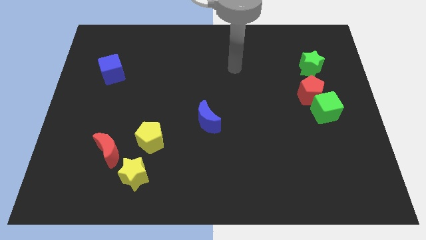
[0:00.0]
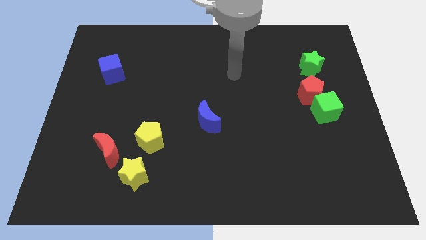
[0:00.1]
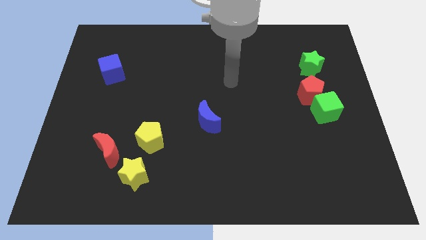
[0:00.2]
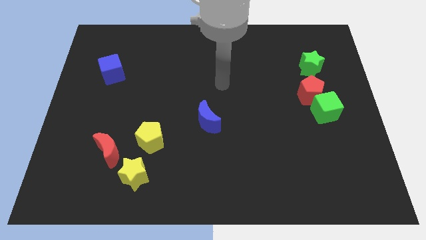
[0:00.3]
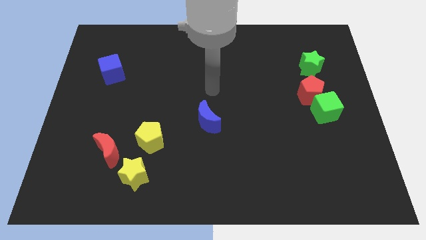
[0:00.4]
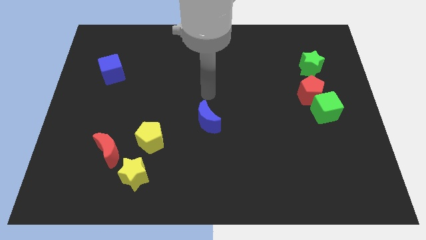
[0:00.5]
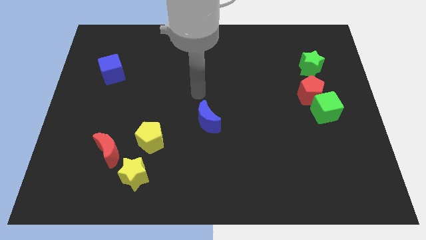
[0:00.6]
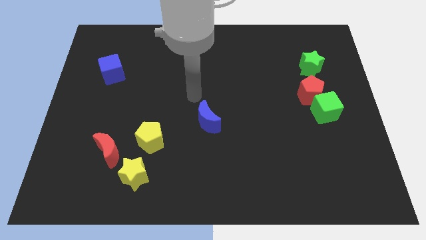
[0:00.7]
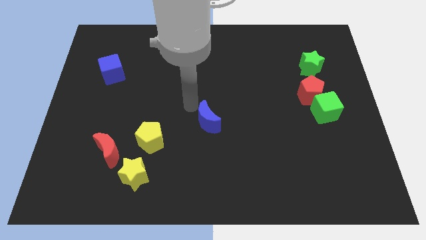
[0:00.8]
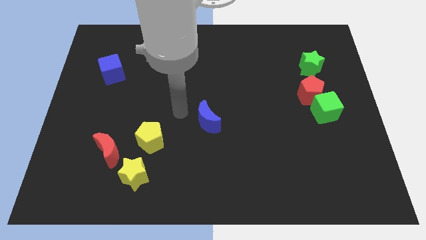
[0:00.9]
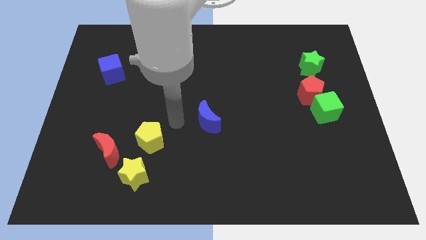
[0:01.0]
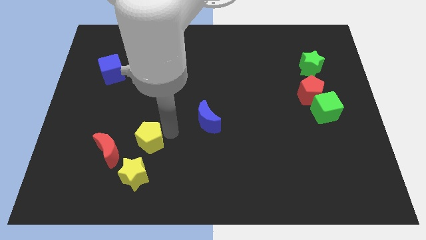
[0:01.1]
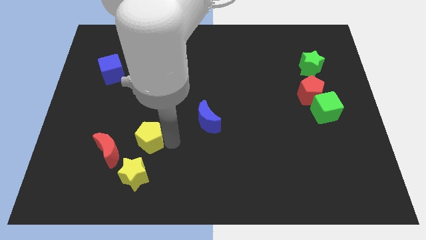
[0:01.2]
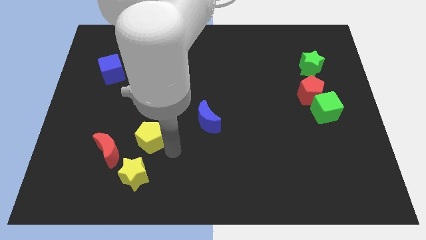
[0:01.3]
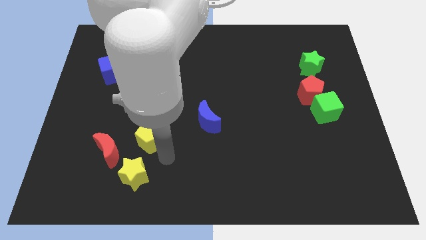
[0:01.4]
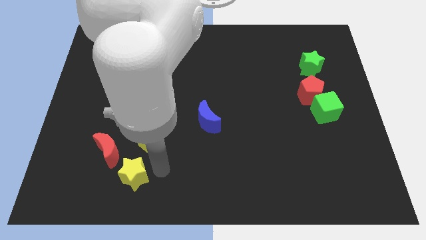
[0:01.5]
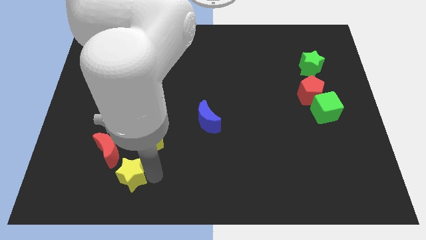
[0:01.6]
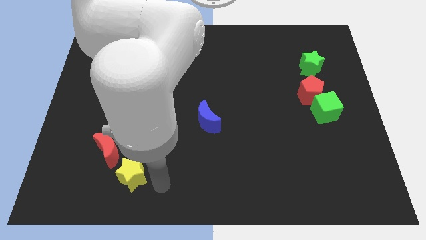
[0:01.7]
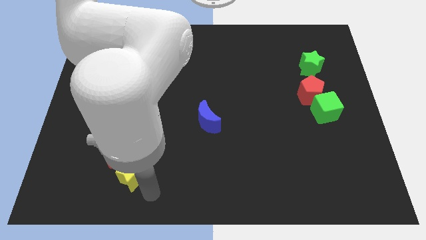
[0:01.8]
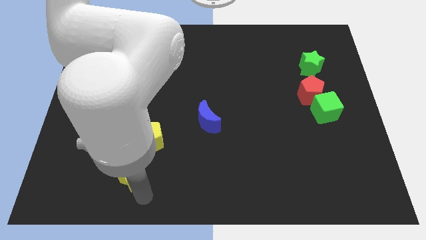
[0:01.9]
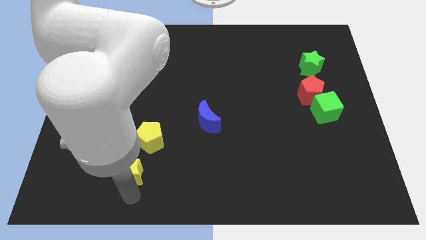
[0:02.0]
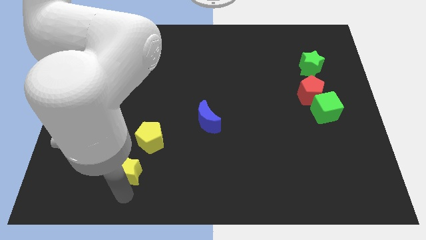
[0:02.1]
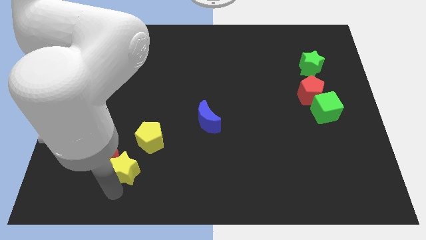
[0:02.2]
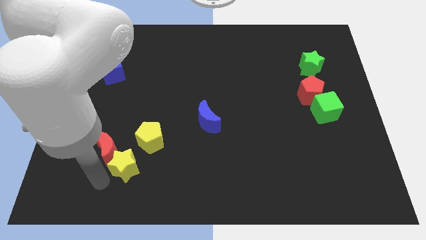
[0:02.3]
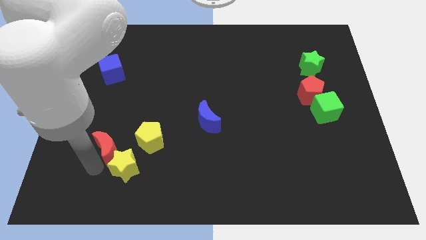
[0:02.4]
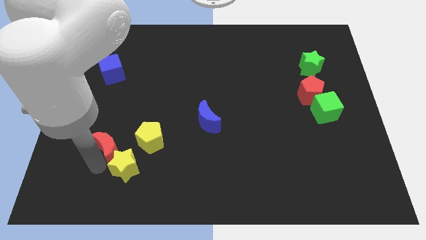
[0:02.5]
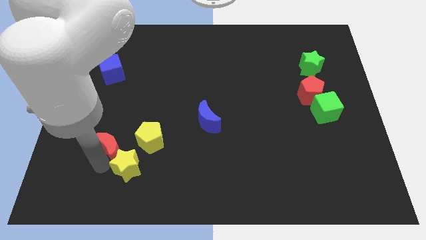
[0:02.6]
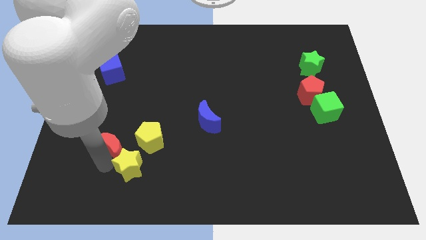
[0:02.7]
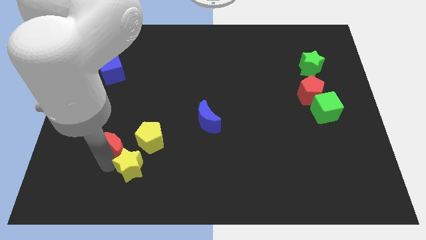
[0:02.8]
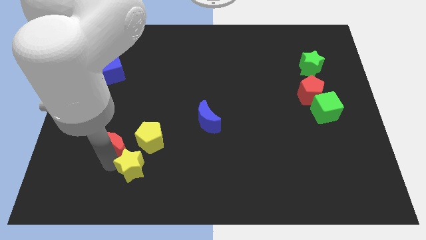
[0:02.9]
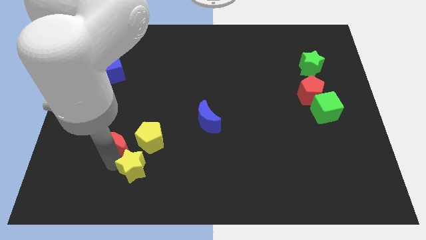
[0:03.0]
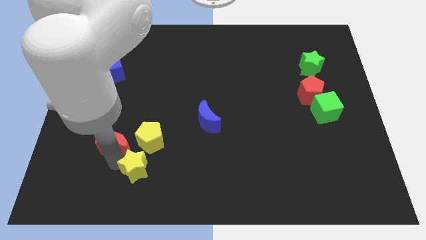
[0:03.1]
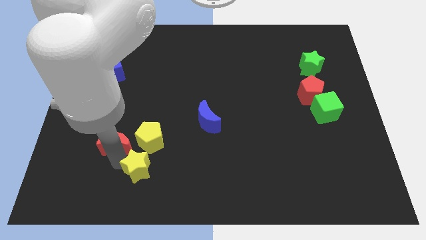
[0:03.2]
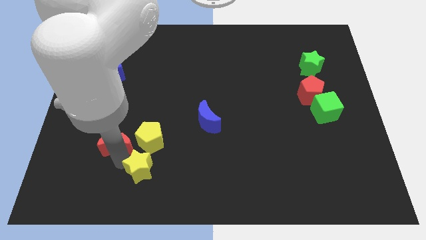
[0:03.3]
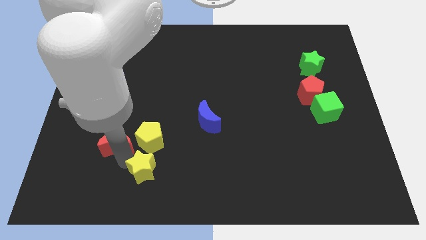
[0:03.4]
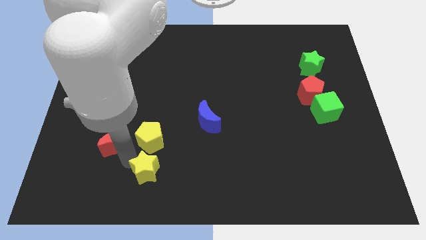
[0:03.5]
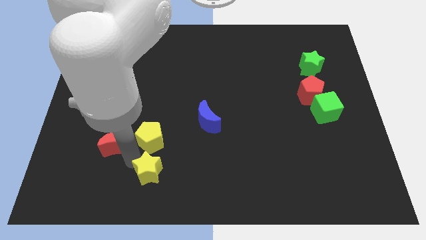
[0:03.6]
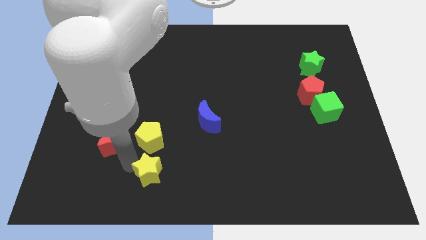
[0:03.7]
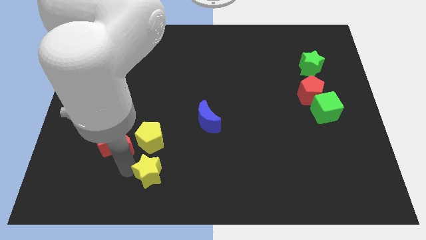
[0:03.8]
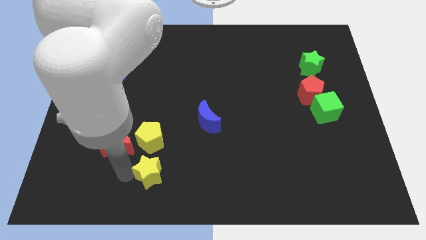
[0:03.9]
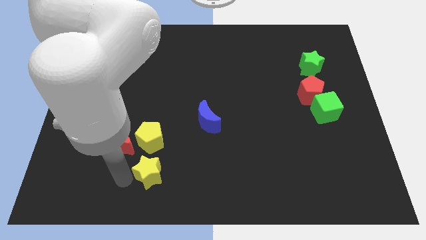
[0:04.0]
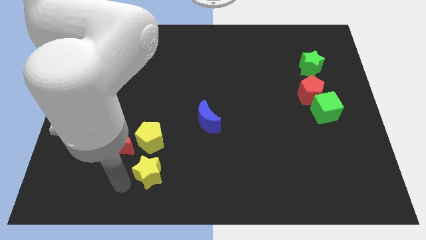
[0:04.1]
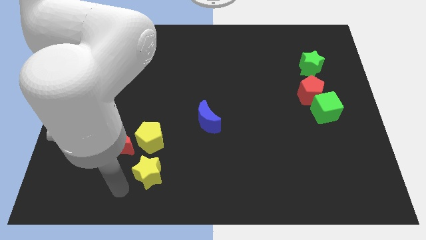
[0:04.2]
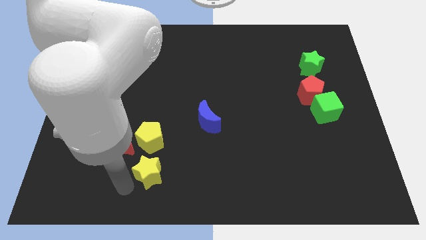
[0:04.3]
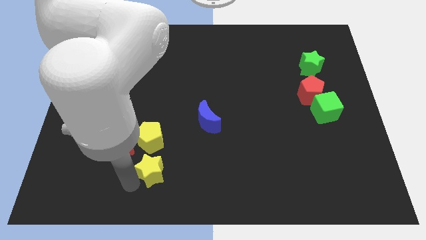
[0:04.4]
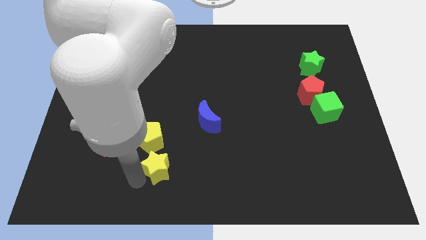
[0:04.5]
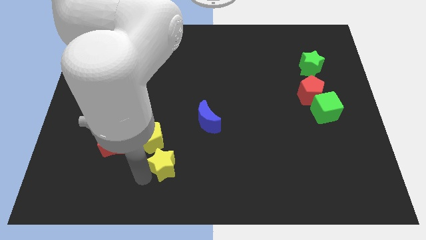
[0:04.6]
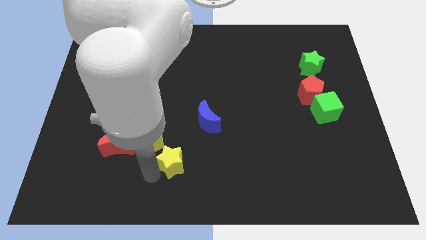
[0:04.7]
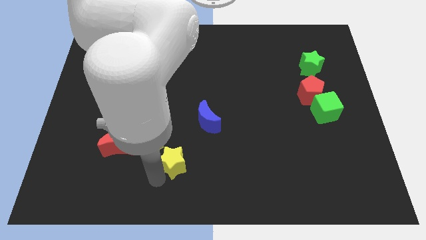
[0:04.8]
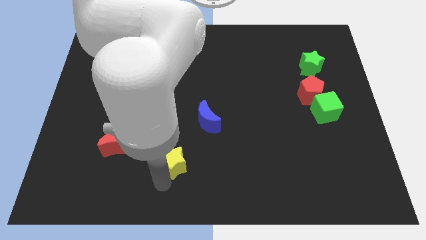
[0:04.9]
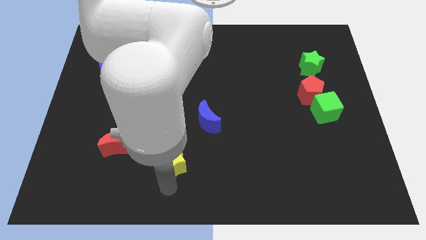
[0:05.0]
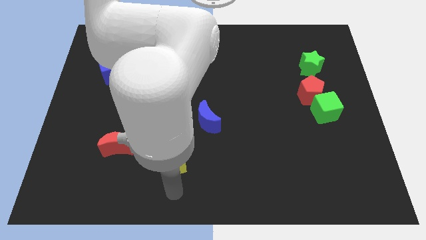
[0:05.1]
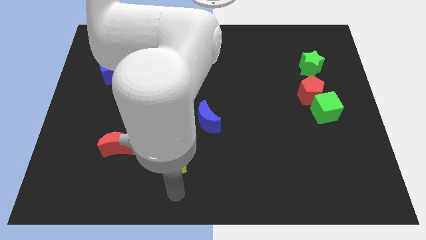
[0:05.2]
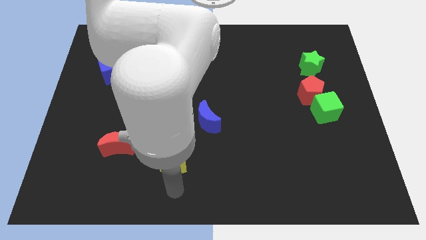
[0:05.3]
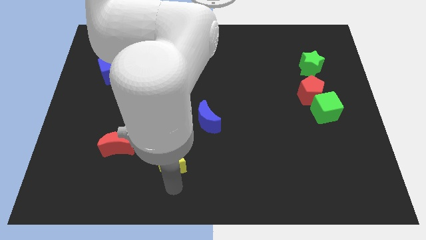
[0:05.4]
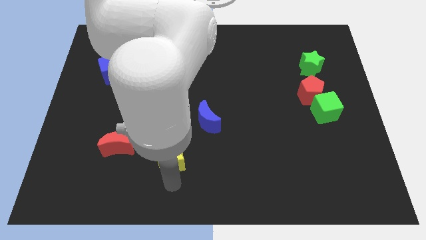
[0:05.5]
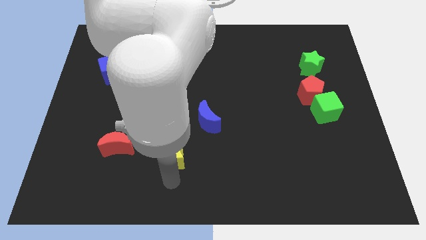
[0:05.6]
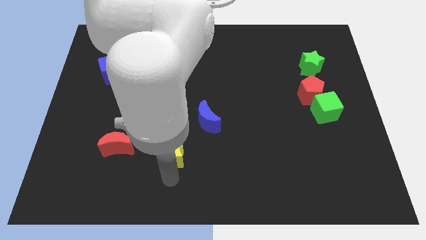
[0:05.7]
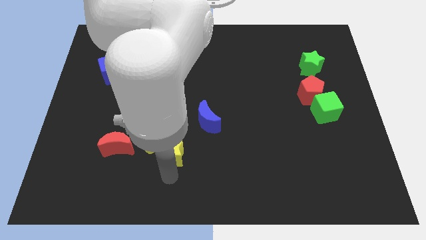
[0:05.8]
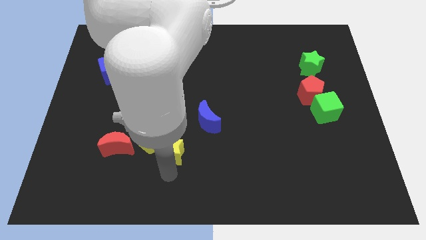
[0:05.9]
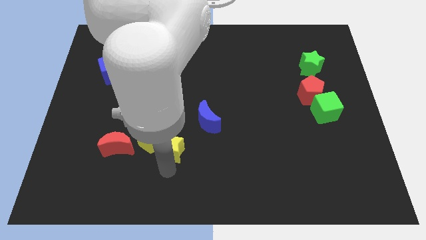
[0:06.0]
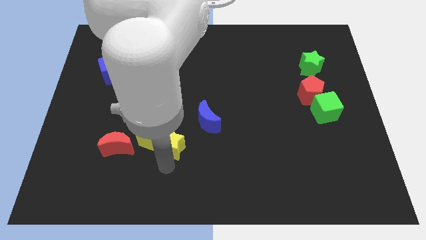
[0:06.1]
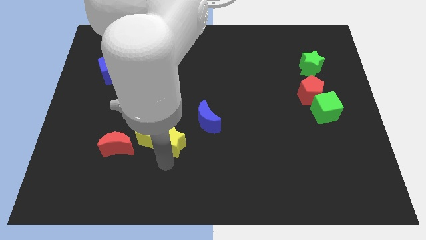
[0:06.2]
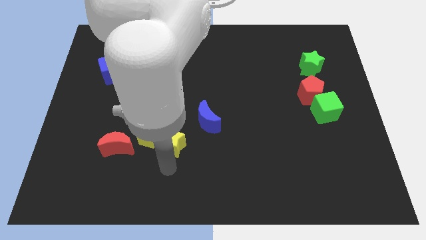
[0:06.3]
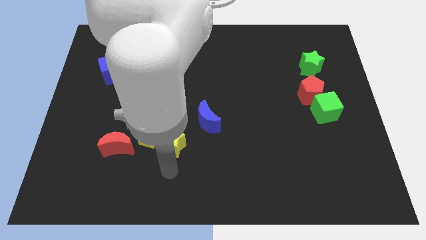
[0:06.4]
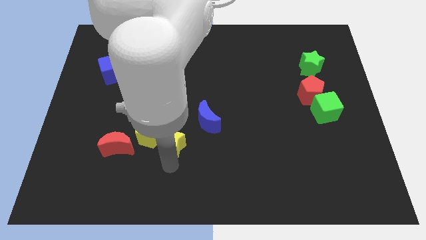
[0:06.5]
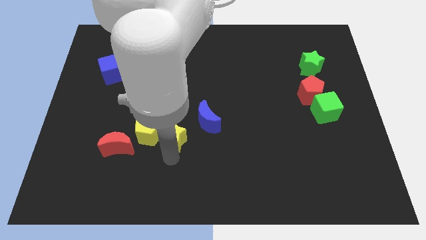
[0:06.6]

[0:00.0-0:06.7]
move the yellow star to the top right side of the yellow pentagon
